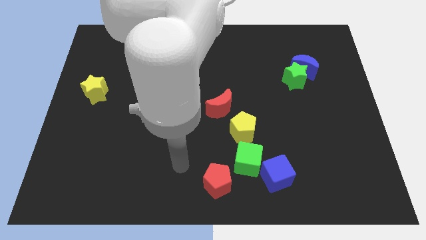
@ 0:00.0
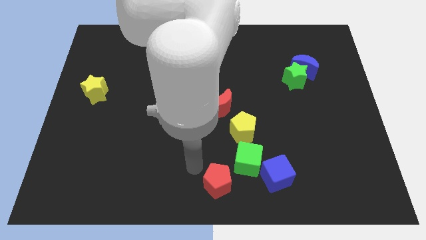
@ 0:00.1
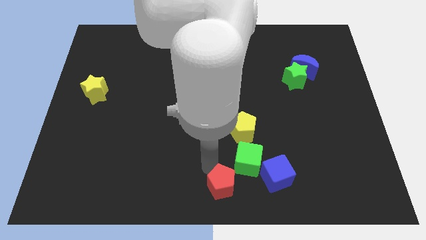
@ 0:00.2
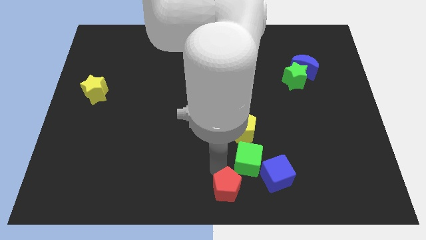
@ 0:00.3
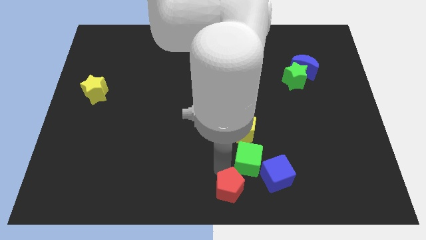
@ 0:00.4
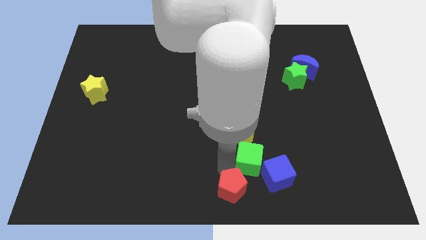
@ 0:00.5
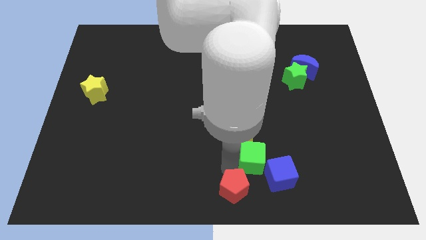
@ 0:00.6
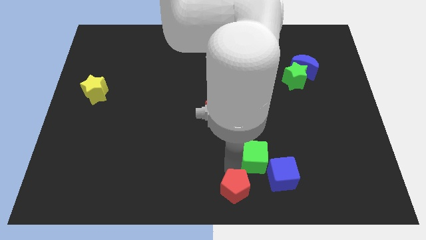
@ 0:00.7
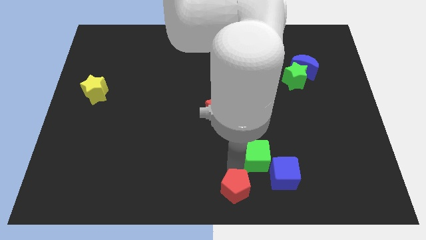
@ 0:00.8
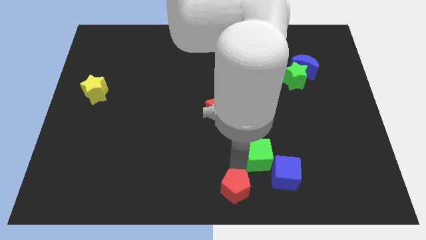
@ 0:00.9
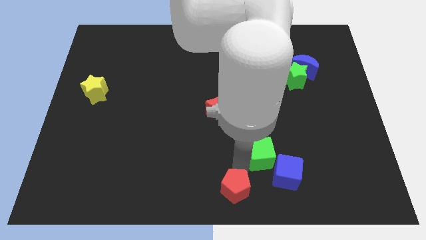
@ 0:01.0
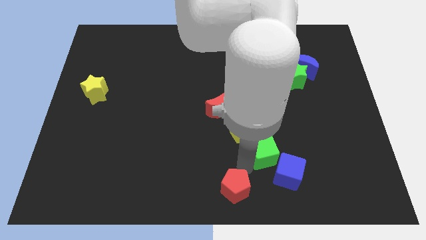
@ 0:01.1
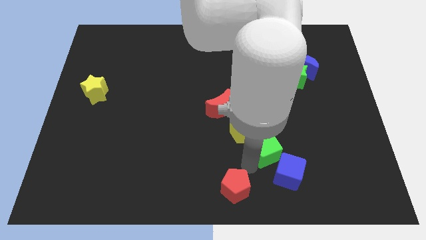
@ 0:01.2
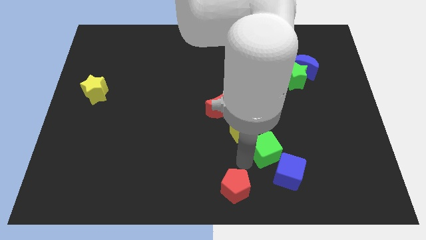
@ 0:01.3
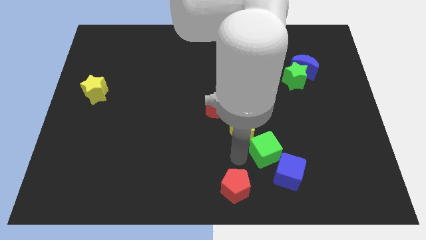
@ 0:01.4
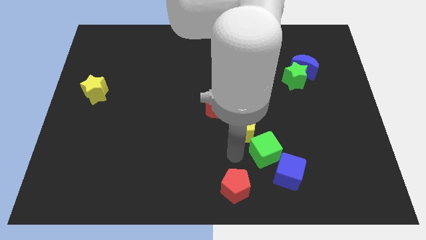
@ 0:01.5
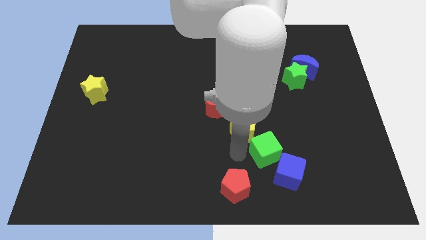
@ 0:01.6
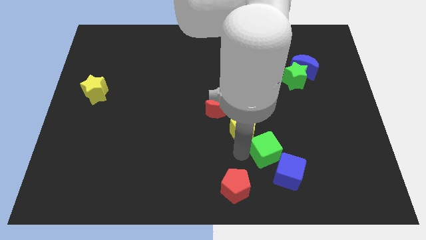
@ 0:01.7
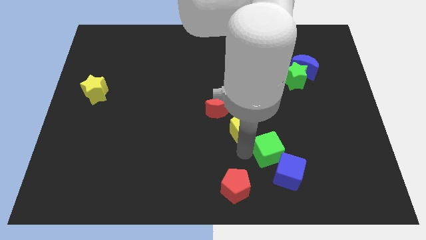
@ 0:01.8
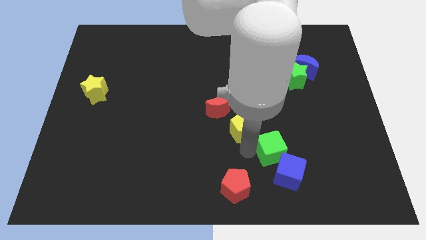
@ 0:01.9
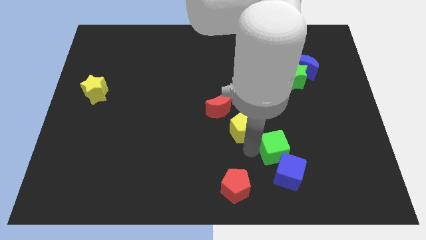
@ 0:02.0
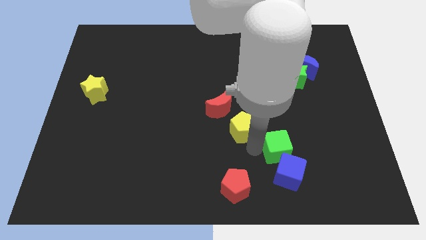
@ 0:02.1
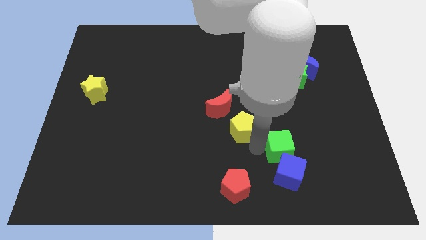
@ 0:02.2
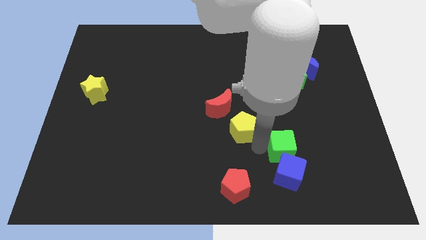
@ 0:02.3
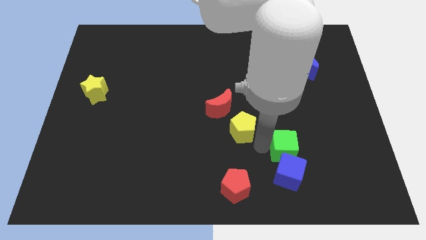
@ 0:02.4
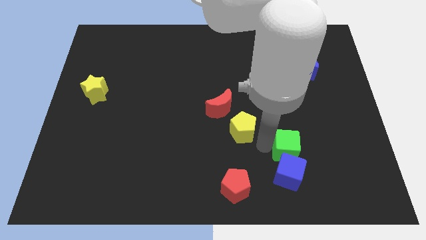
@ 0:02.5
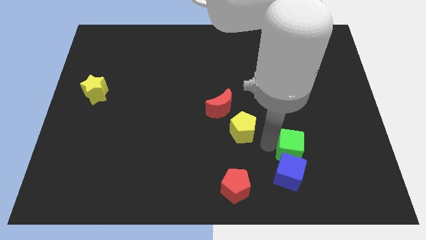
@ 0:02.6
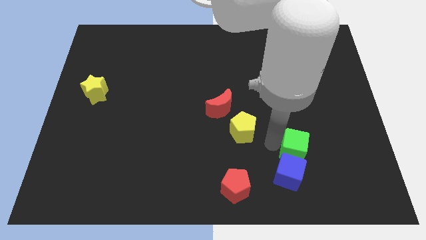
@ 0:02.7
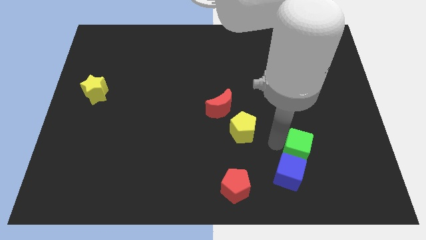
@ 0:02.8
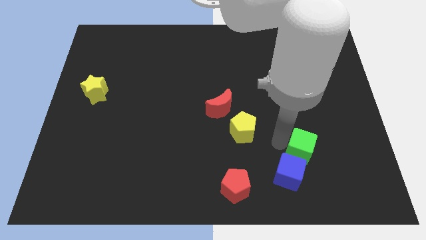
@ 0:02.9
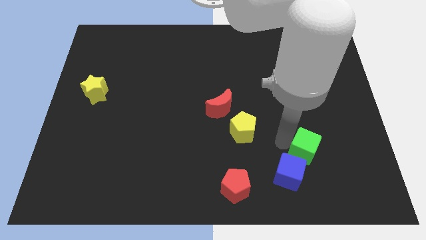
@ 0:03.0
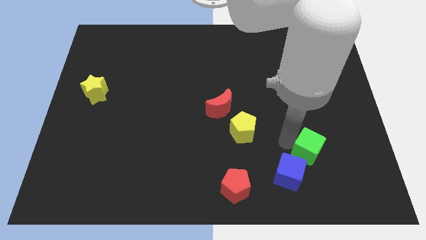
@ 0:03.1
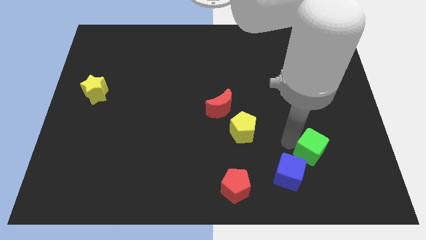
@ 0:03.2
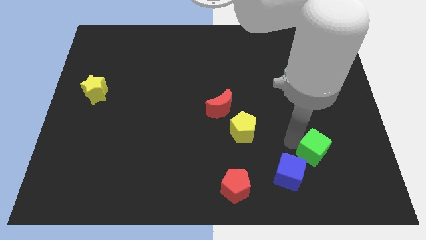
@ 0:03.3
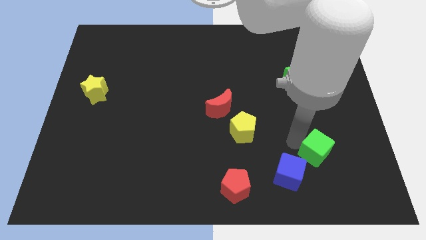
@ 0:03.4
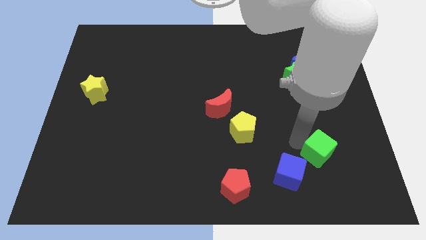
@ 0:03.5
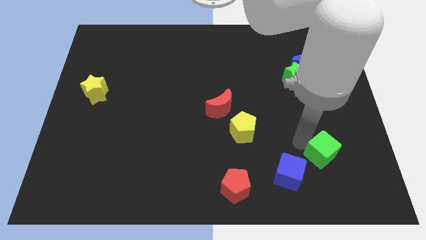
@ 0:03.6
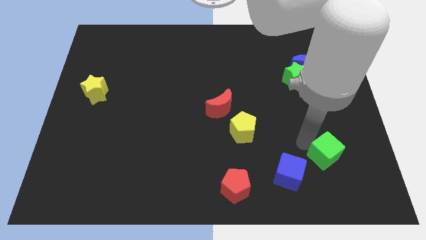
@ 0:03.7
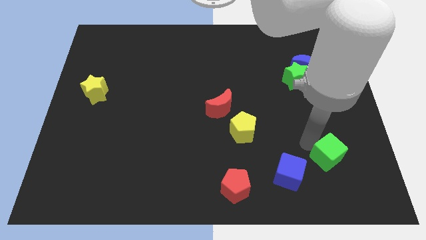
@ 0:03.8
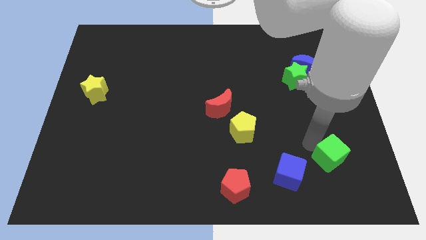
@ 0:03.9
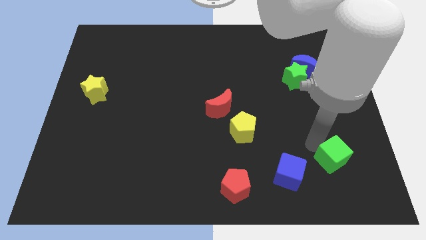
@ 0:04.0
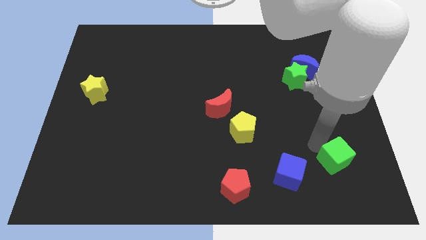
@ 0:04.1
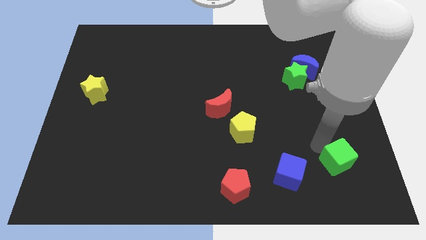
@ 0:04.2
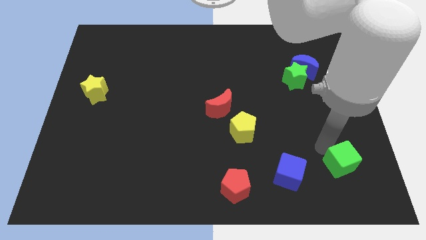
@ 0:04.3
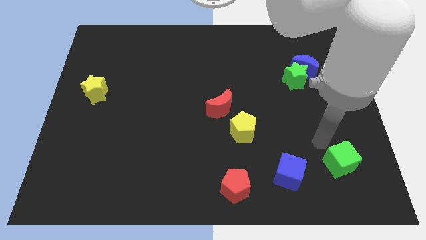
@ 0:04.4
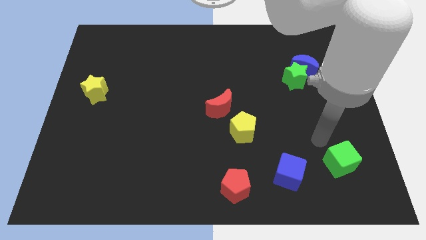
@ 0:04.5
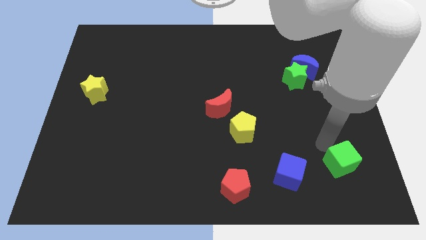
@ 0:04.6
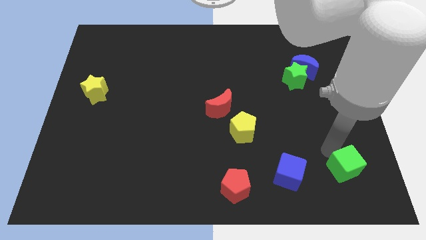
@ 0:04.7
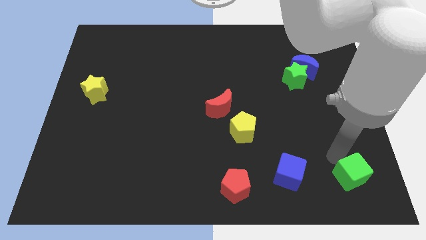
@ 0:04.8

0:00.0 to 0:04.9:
slide the green cube to the bottom right

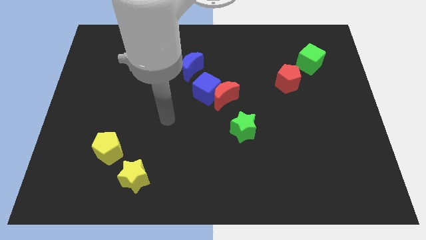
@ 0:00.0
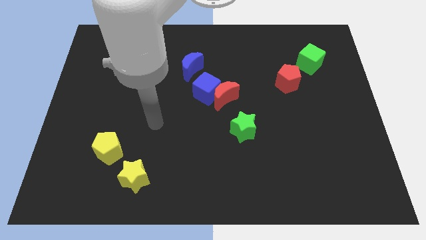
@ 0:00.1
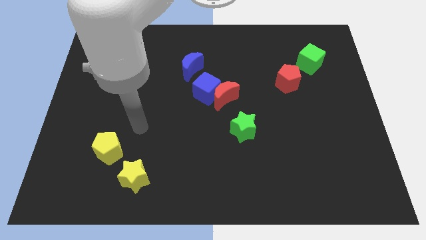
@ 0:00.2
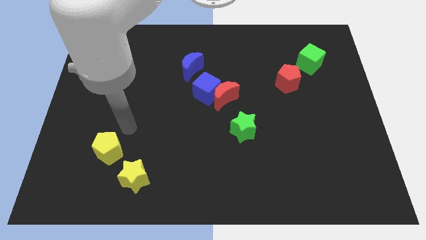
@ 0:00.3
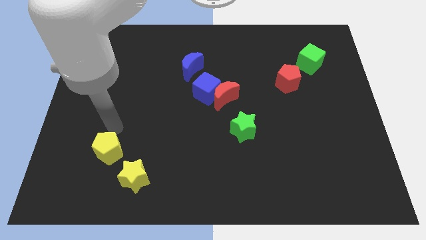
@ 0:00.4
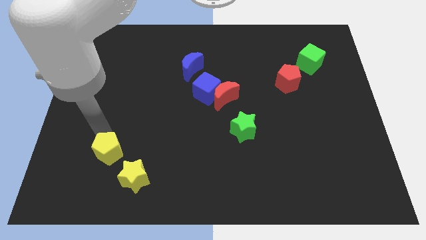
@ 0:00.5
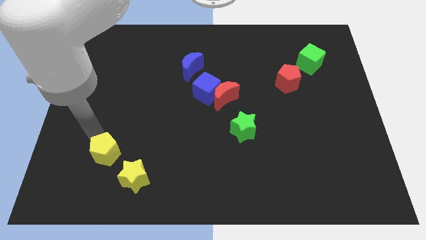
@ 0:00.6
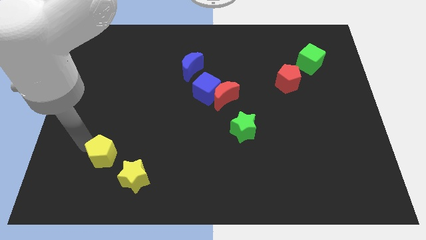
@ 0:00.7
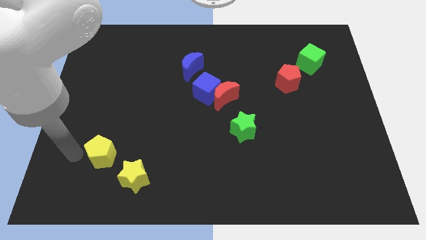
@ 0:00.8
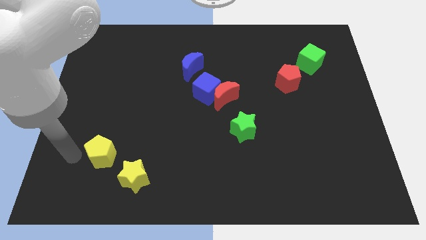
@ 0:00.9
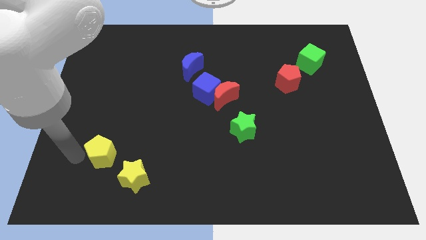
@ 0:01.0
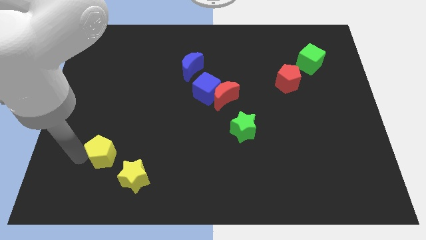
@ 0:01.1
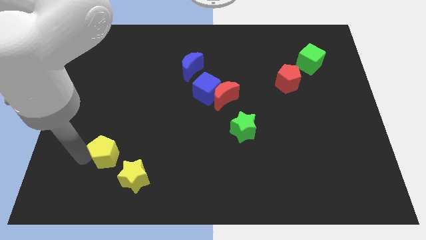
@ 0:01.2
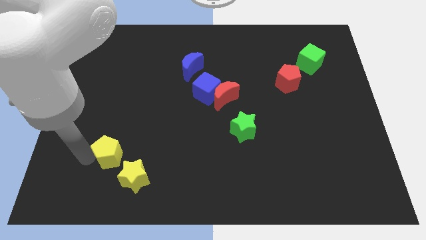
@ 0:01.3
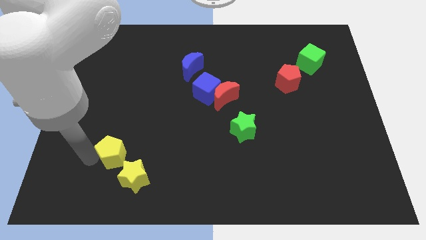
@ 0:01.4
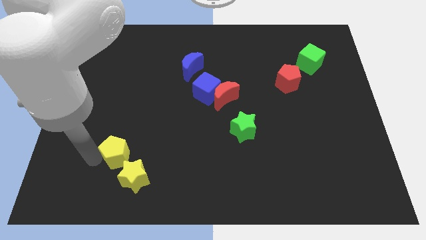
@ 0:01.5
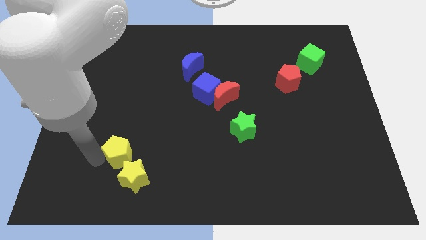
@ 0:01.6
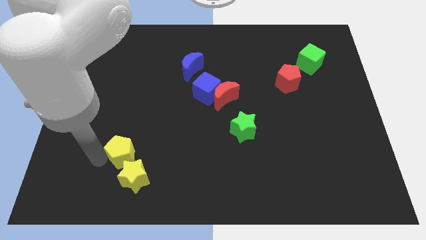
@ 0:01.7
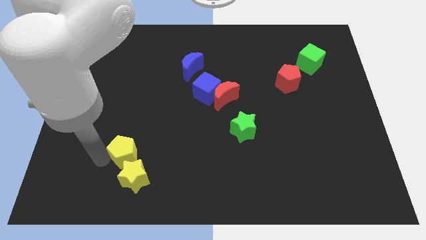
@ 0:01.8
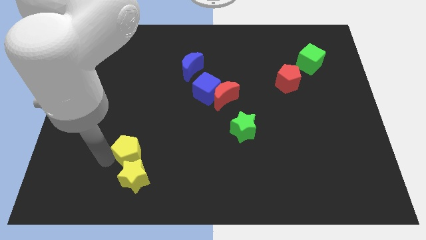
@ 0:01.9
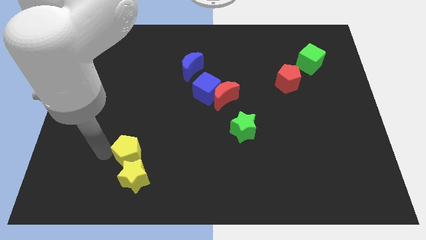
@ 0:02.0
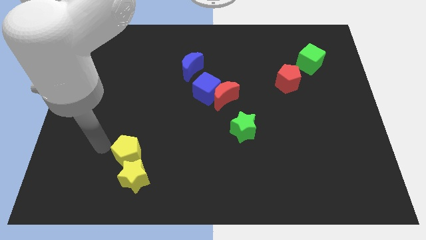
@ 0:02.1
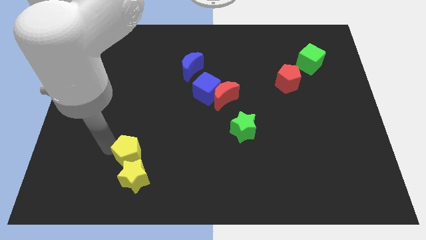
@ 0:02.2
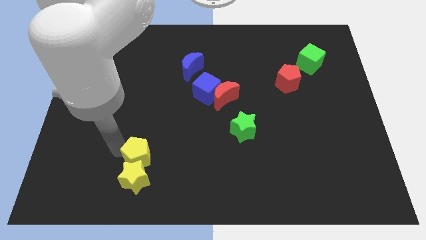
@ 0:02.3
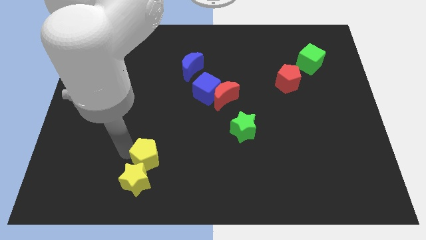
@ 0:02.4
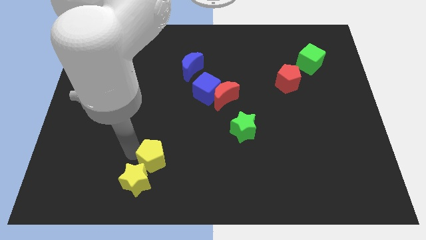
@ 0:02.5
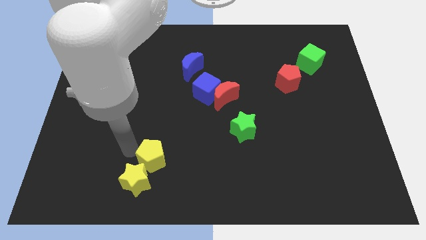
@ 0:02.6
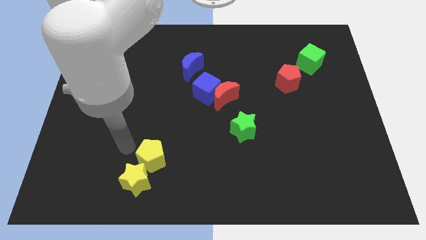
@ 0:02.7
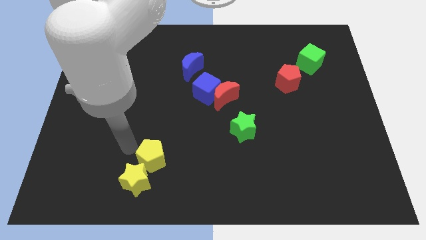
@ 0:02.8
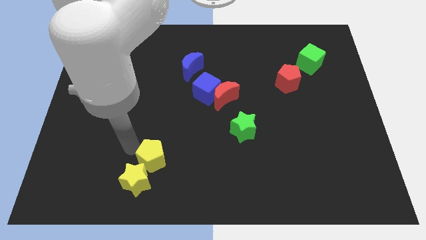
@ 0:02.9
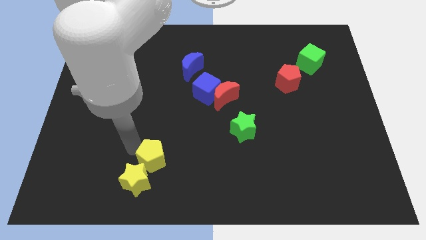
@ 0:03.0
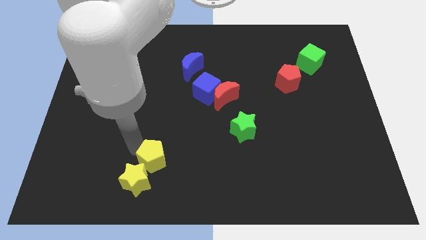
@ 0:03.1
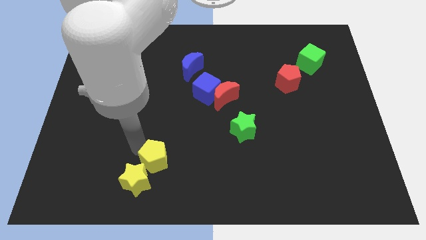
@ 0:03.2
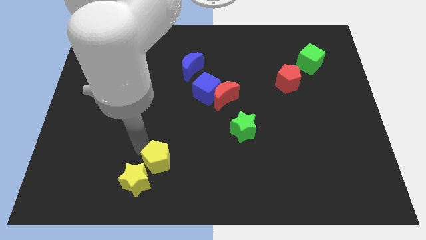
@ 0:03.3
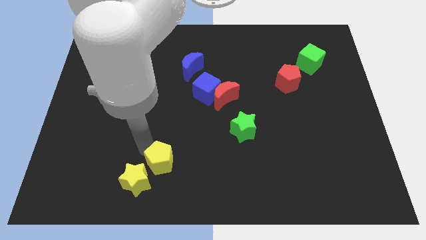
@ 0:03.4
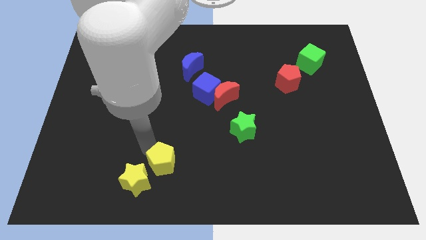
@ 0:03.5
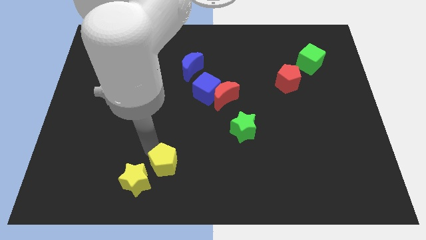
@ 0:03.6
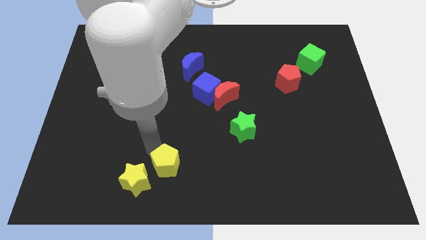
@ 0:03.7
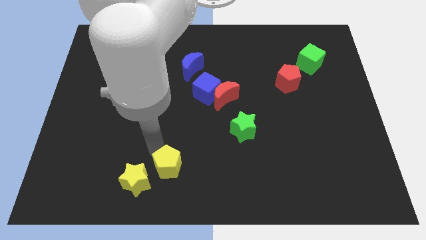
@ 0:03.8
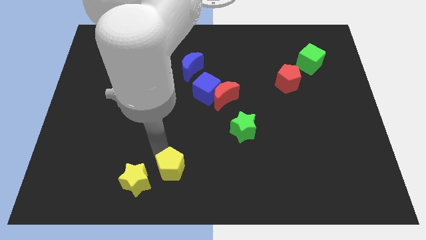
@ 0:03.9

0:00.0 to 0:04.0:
slide the yellow pentagon to the bottom
